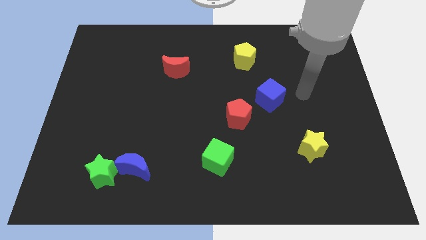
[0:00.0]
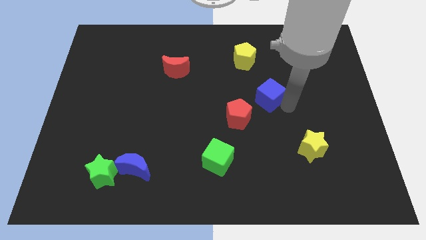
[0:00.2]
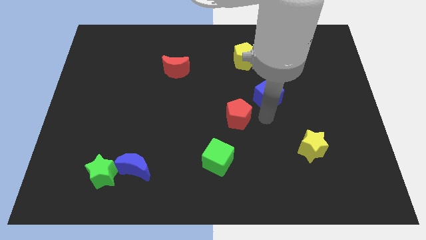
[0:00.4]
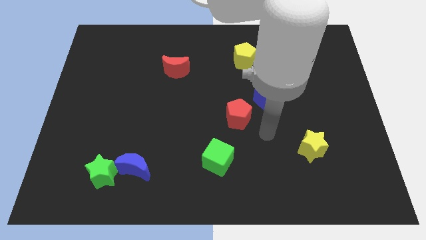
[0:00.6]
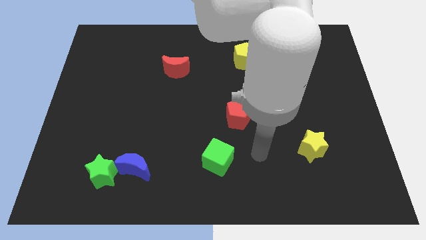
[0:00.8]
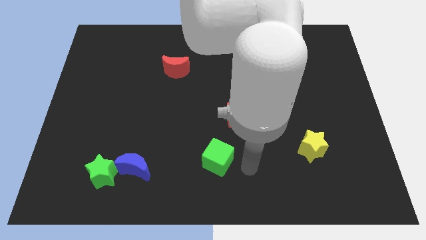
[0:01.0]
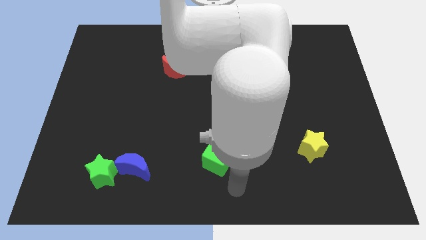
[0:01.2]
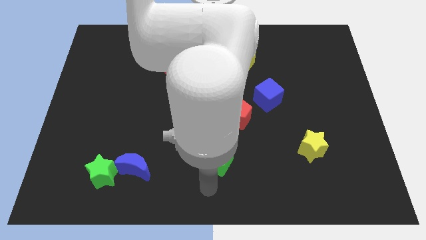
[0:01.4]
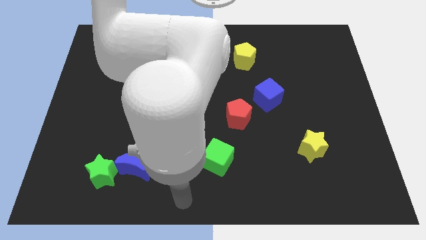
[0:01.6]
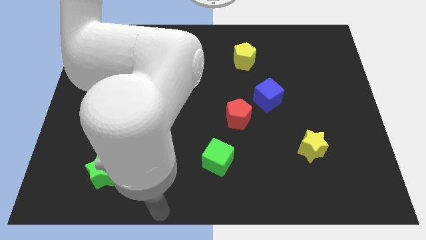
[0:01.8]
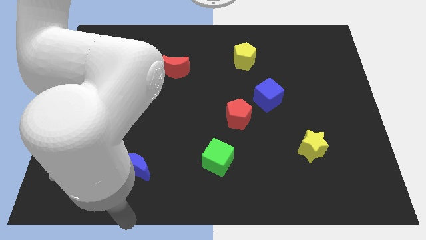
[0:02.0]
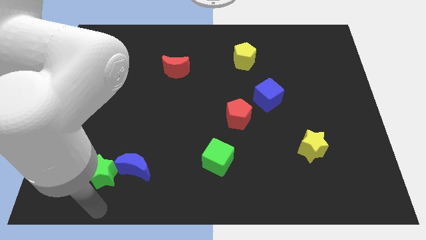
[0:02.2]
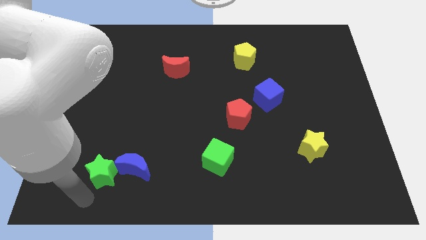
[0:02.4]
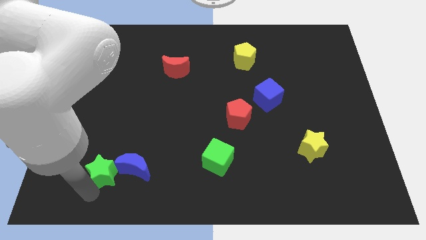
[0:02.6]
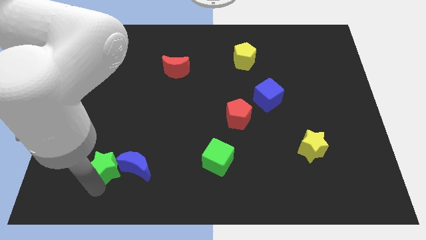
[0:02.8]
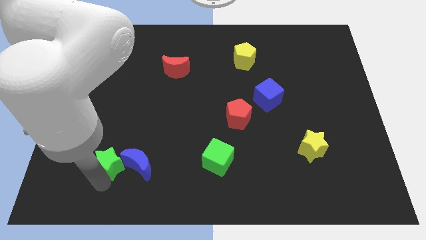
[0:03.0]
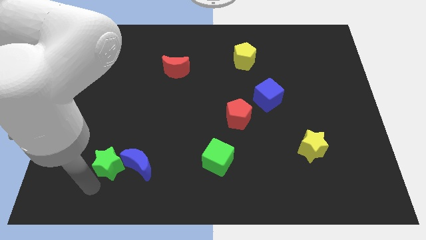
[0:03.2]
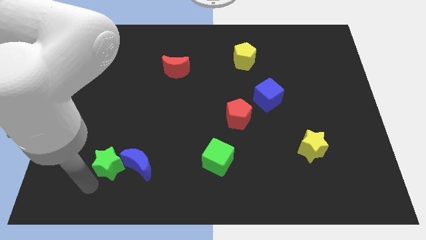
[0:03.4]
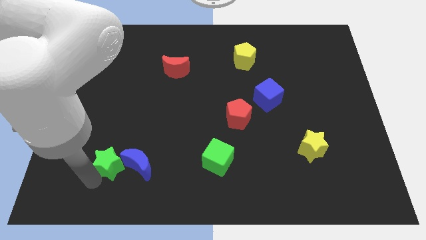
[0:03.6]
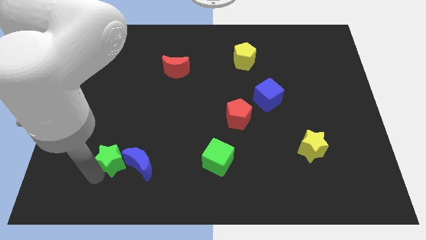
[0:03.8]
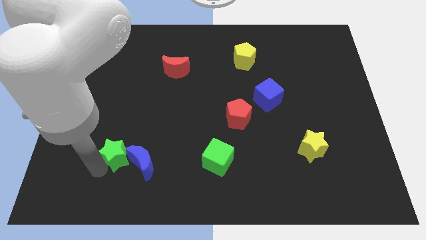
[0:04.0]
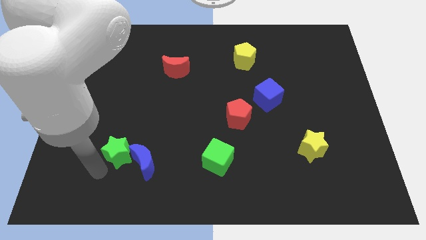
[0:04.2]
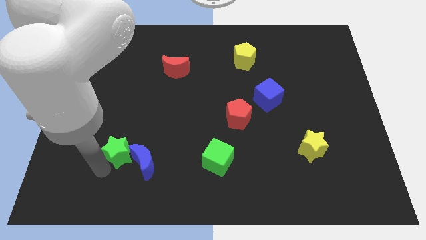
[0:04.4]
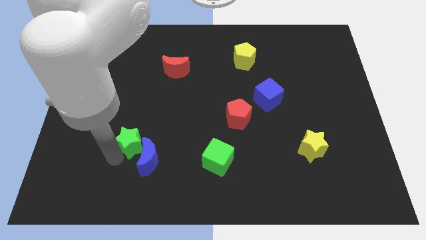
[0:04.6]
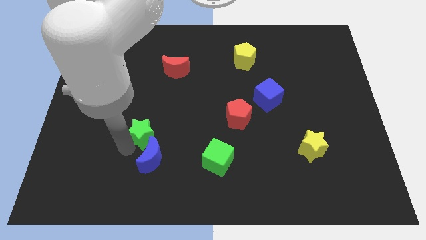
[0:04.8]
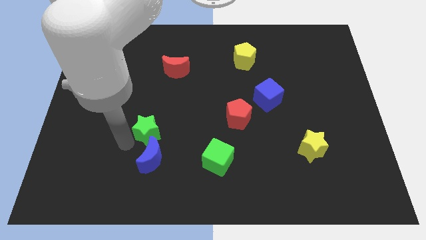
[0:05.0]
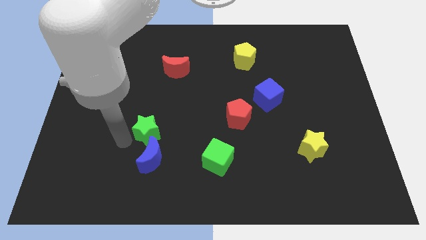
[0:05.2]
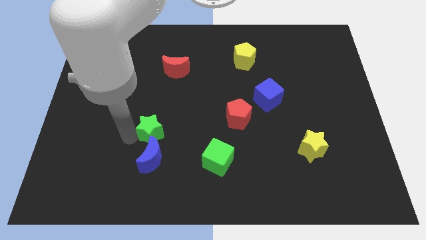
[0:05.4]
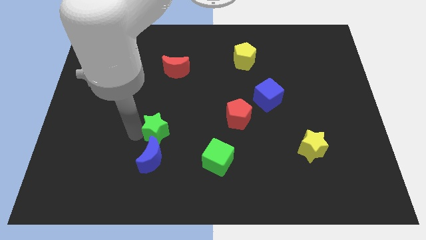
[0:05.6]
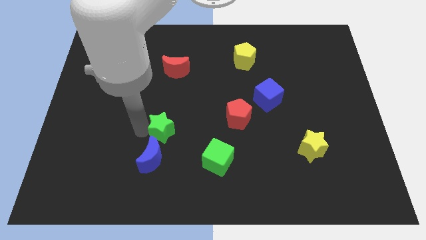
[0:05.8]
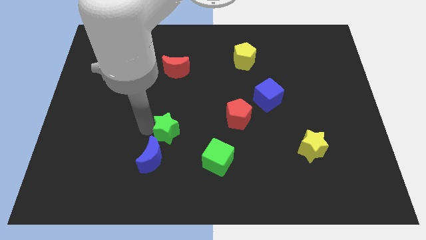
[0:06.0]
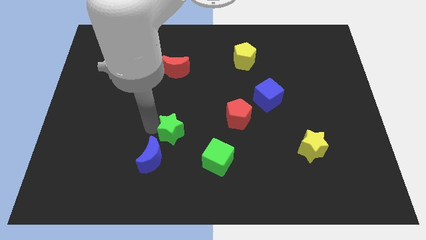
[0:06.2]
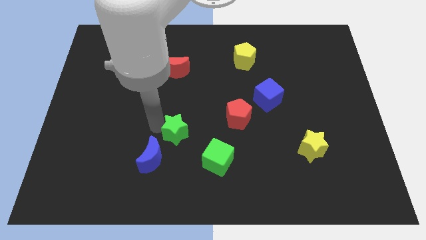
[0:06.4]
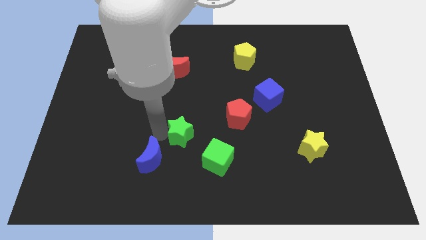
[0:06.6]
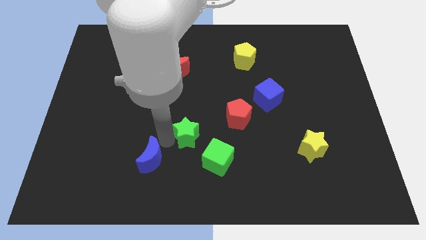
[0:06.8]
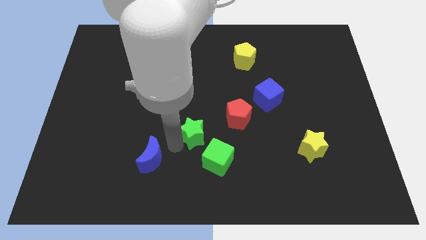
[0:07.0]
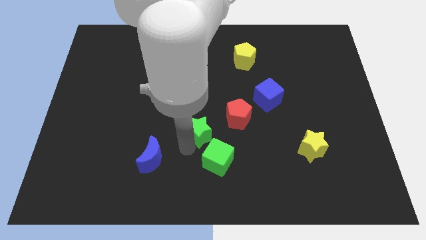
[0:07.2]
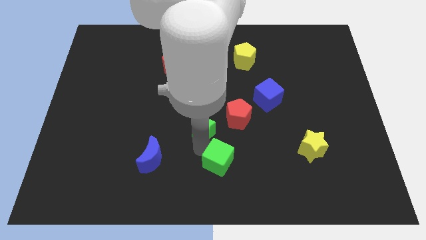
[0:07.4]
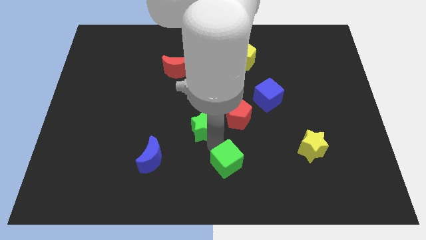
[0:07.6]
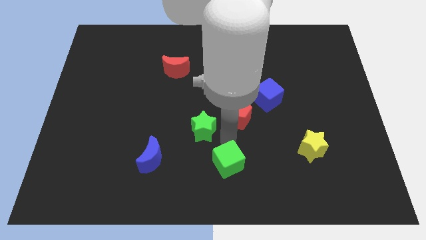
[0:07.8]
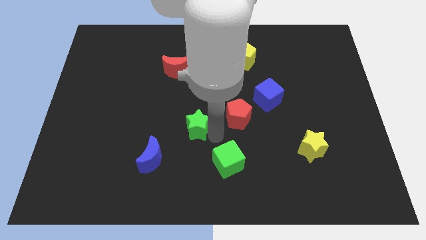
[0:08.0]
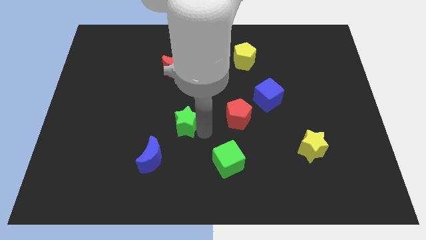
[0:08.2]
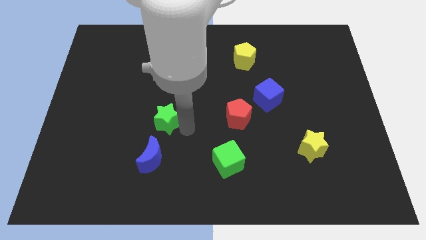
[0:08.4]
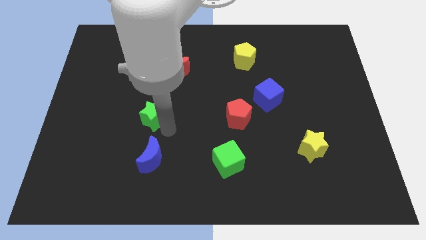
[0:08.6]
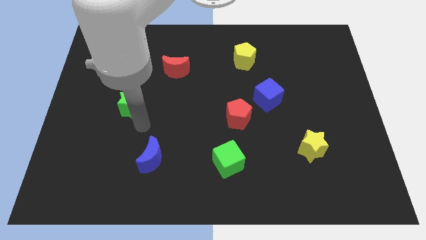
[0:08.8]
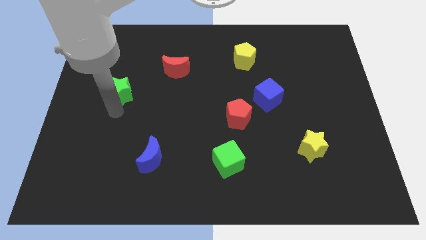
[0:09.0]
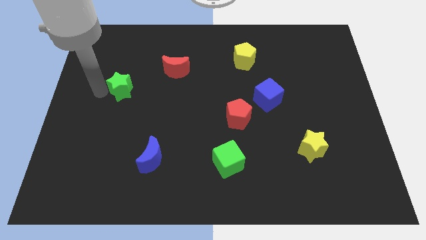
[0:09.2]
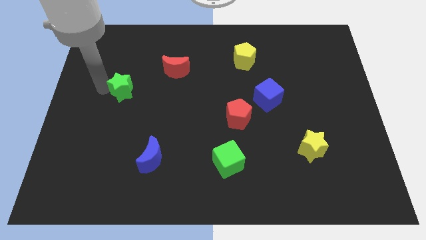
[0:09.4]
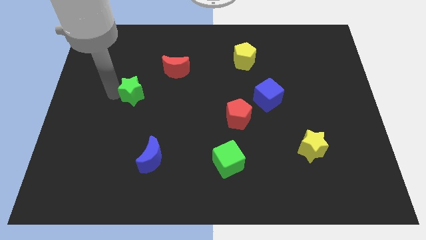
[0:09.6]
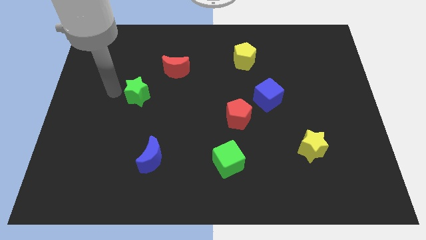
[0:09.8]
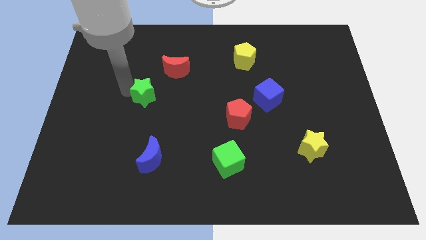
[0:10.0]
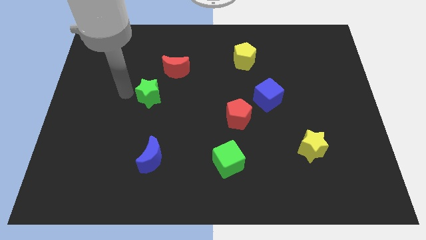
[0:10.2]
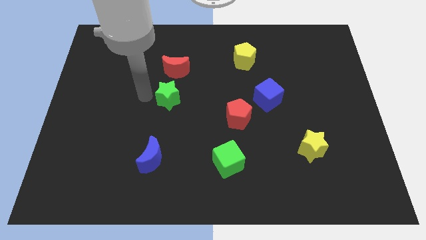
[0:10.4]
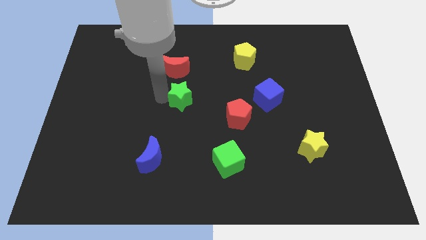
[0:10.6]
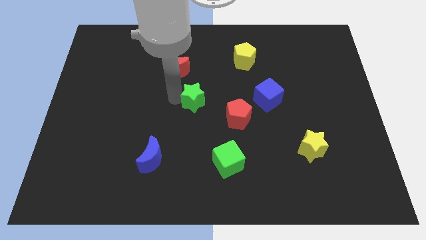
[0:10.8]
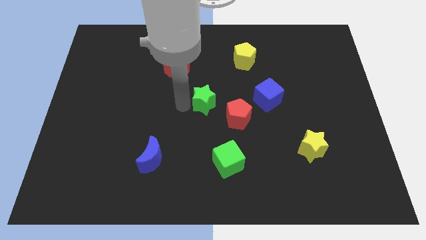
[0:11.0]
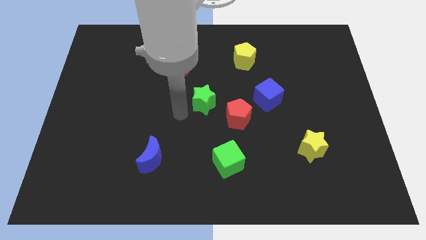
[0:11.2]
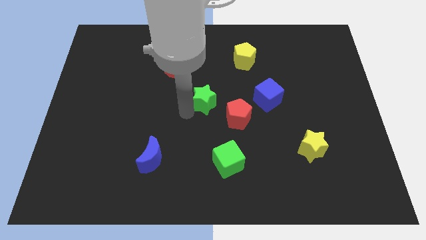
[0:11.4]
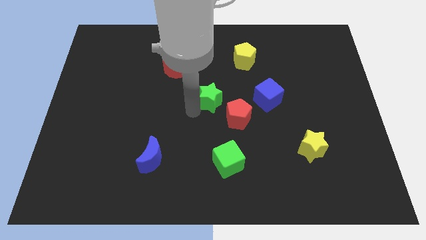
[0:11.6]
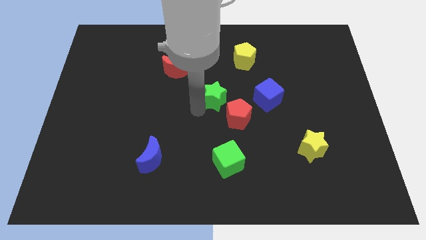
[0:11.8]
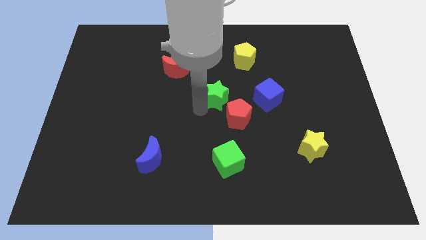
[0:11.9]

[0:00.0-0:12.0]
push the green star to the top of the red pentagon

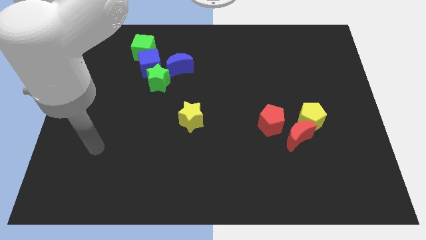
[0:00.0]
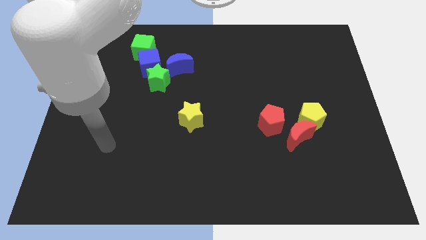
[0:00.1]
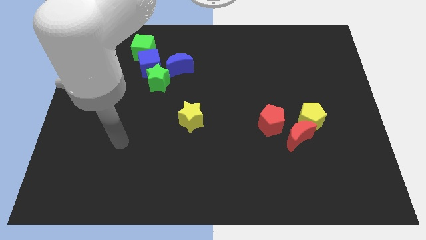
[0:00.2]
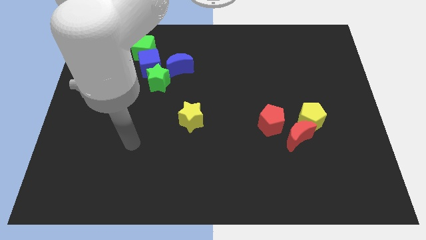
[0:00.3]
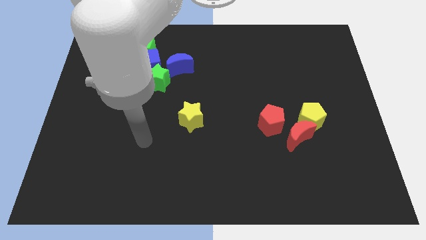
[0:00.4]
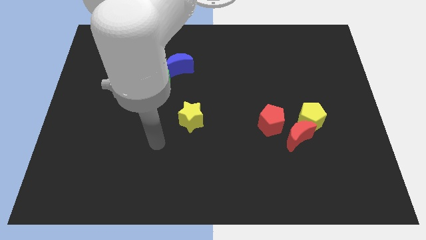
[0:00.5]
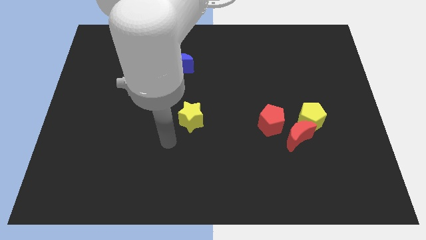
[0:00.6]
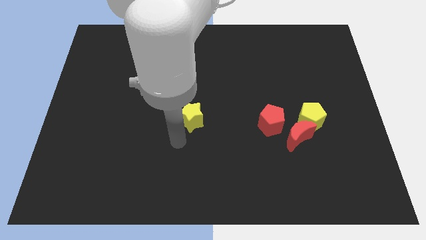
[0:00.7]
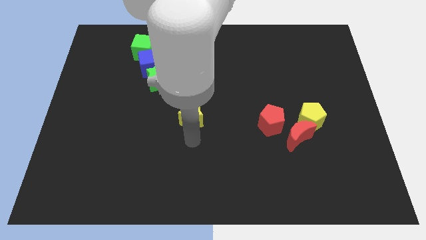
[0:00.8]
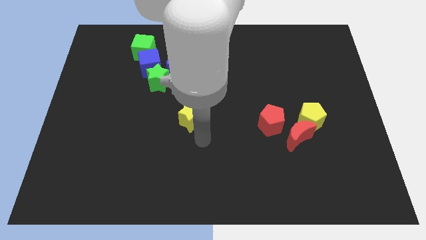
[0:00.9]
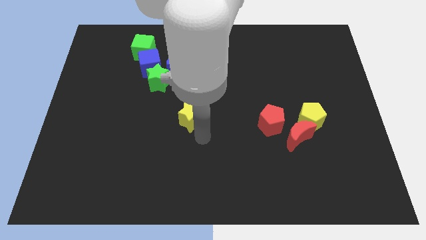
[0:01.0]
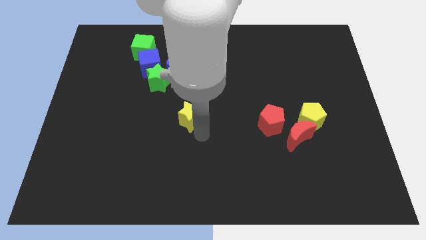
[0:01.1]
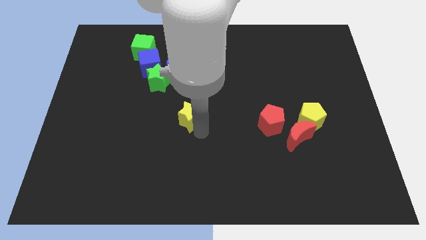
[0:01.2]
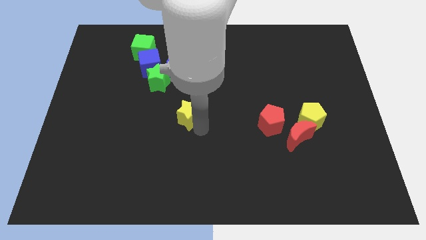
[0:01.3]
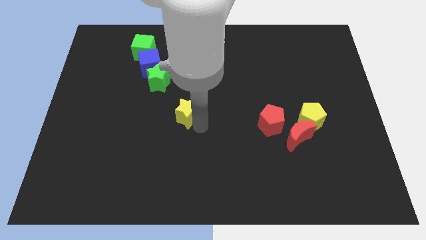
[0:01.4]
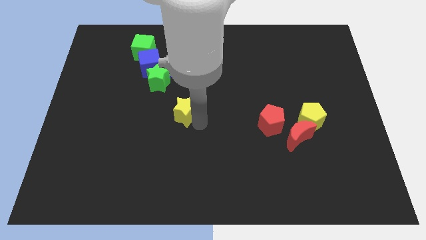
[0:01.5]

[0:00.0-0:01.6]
put the yellow star to the bottom right side of the green star
